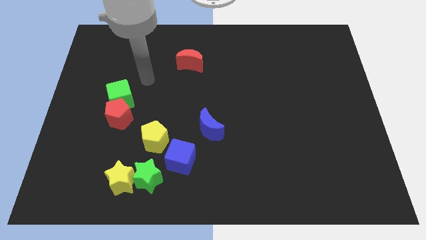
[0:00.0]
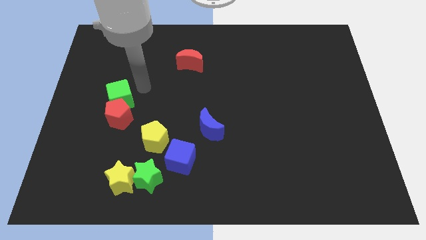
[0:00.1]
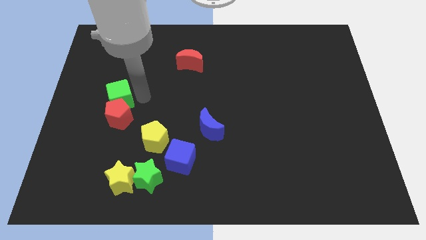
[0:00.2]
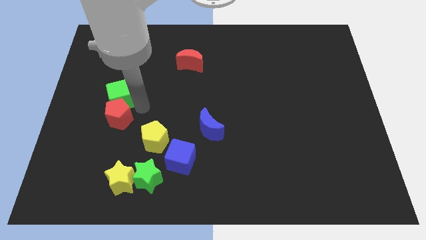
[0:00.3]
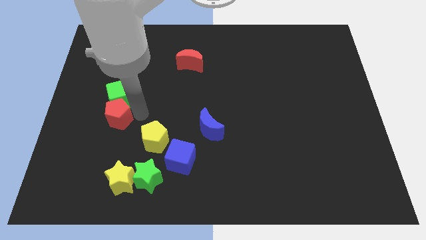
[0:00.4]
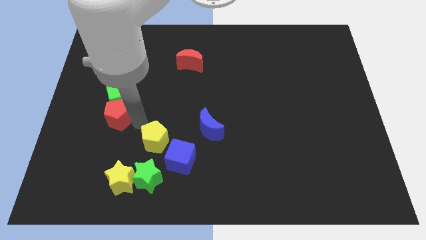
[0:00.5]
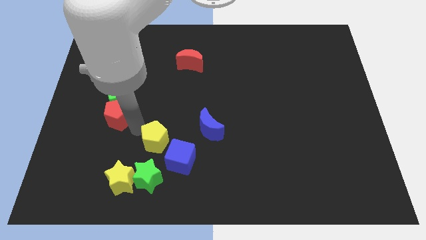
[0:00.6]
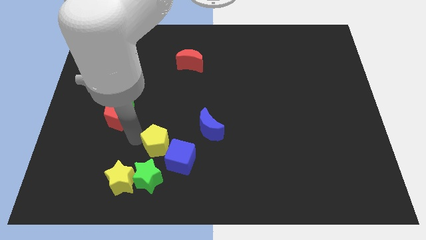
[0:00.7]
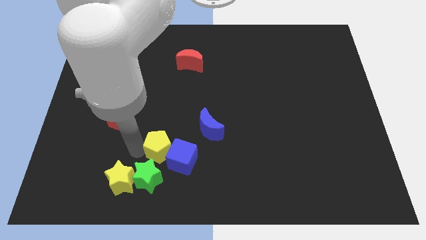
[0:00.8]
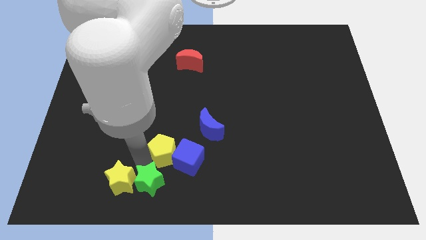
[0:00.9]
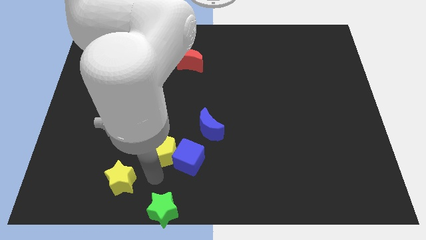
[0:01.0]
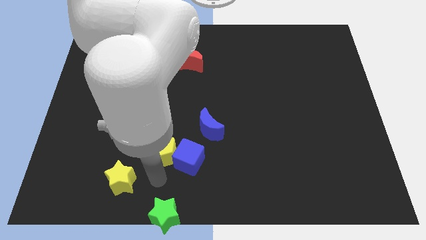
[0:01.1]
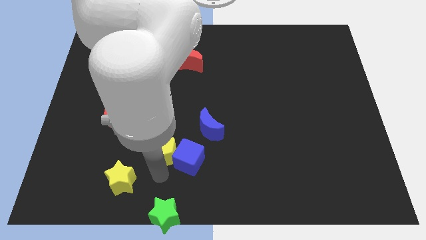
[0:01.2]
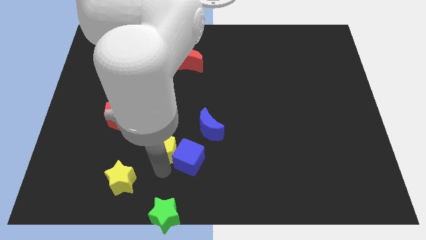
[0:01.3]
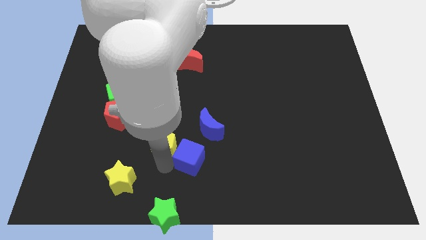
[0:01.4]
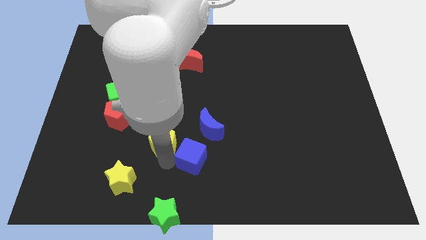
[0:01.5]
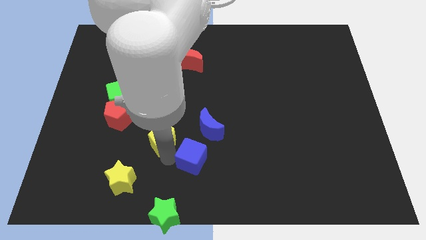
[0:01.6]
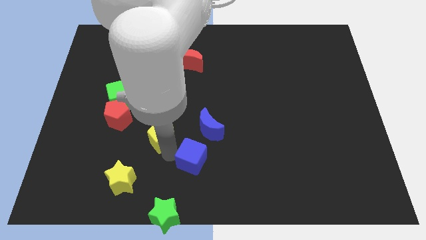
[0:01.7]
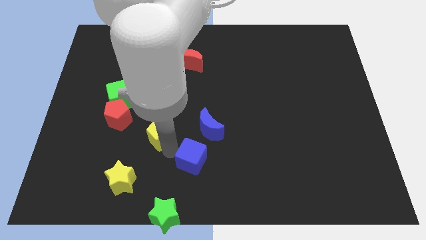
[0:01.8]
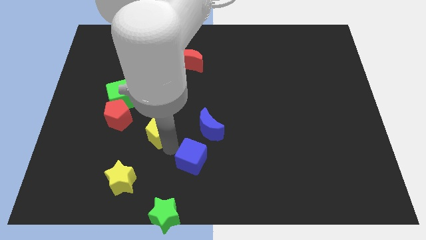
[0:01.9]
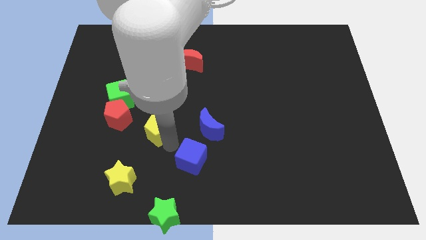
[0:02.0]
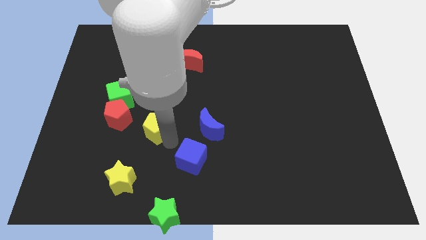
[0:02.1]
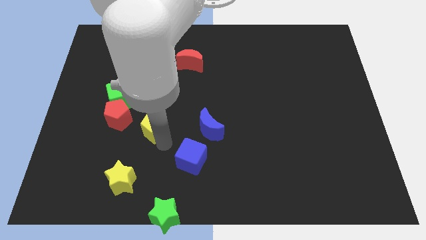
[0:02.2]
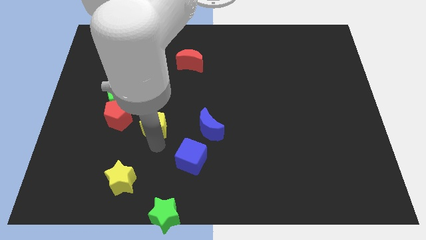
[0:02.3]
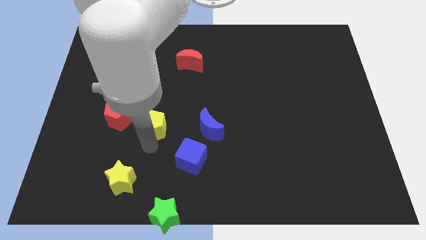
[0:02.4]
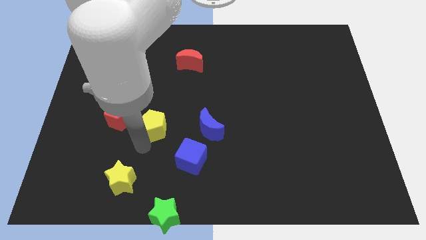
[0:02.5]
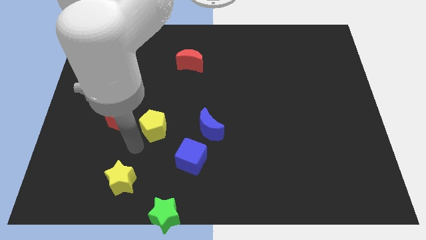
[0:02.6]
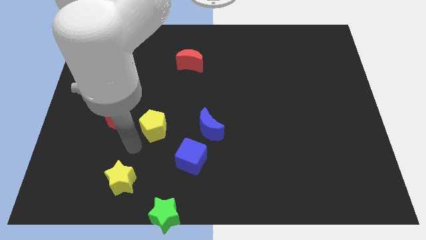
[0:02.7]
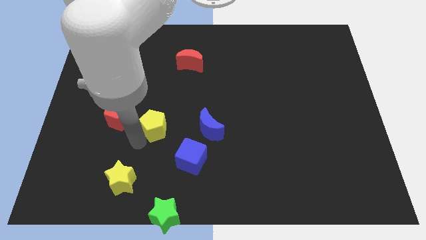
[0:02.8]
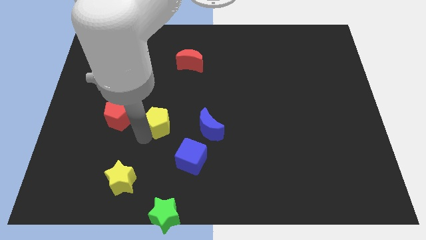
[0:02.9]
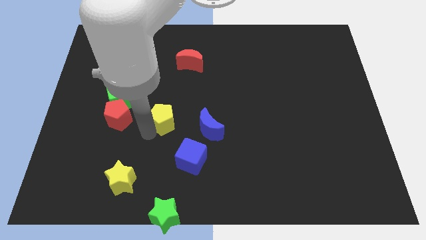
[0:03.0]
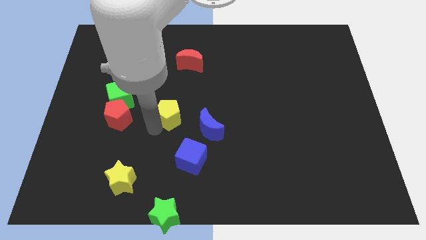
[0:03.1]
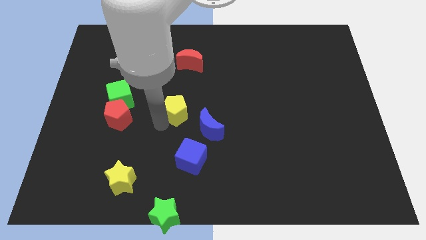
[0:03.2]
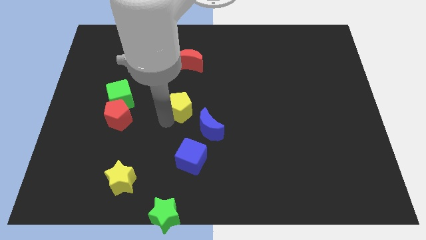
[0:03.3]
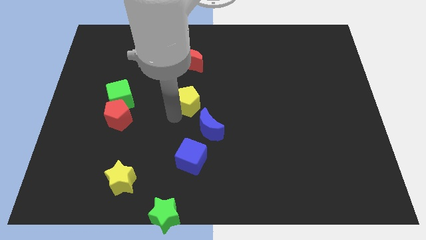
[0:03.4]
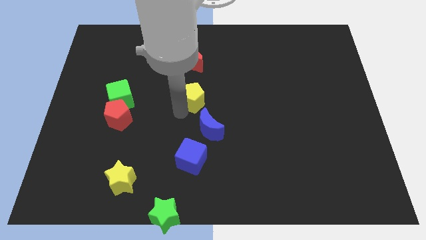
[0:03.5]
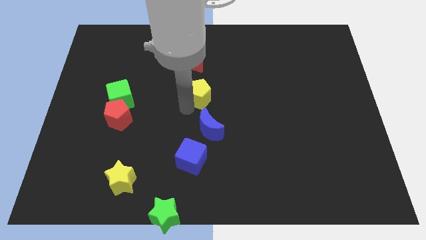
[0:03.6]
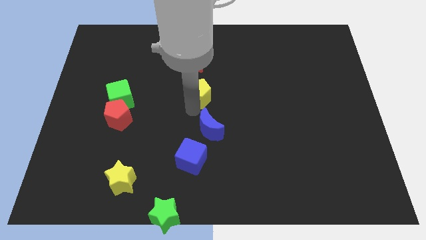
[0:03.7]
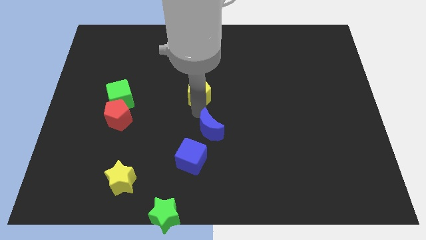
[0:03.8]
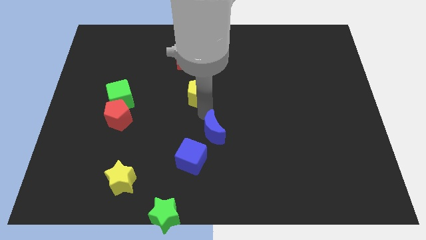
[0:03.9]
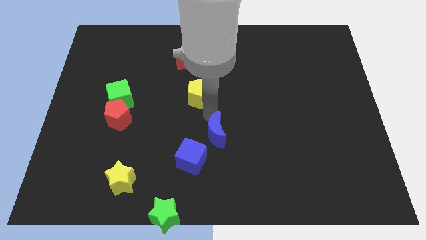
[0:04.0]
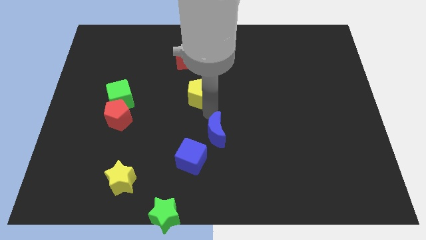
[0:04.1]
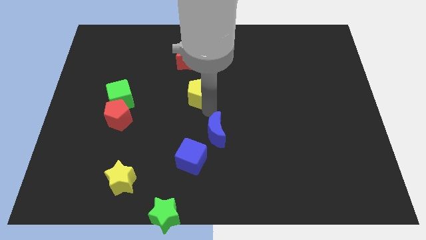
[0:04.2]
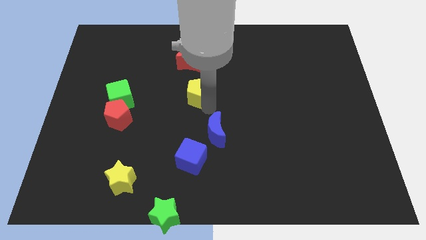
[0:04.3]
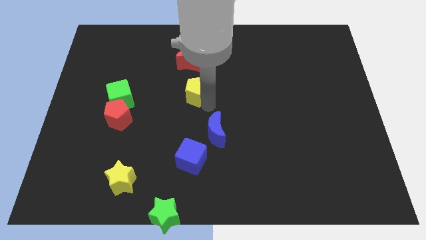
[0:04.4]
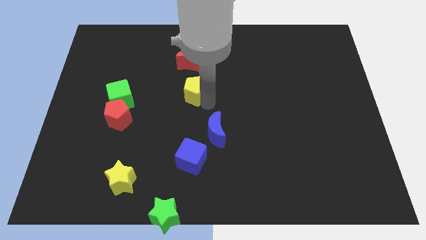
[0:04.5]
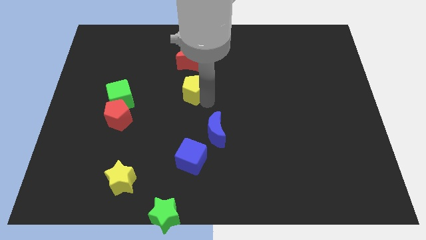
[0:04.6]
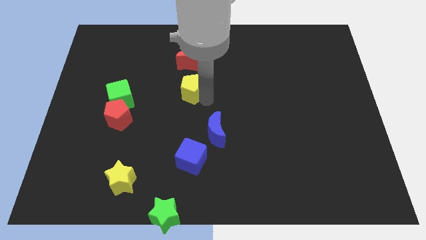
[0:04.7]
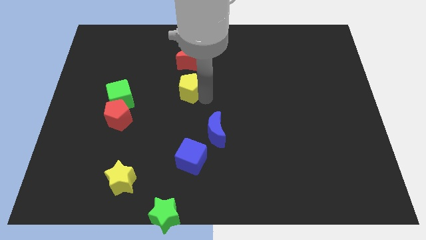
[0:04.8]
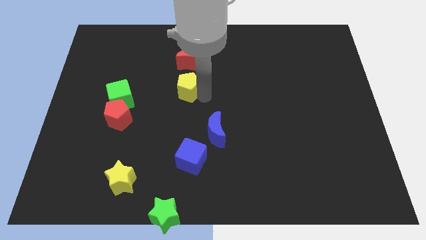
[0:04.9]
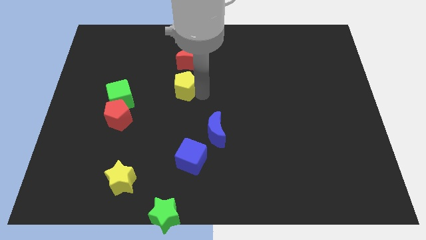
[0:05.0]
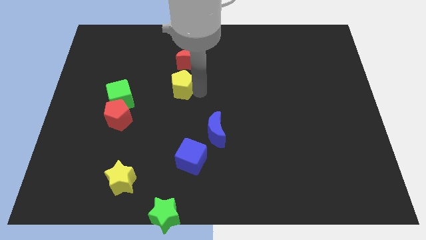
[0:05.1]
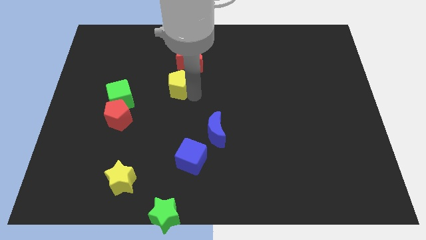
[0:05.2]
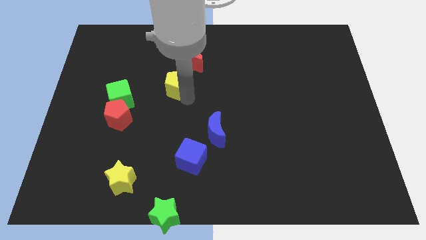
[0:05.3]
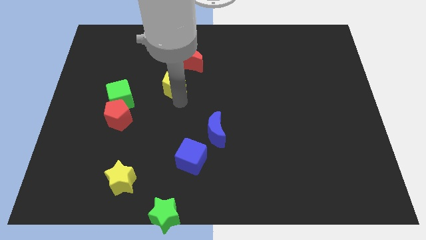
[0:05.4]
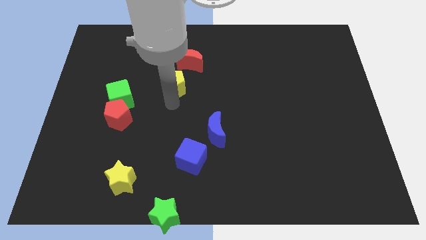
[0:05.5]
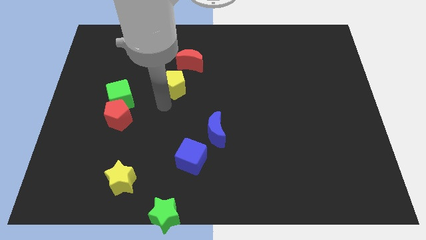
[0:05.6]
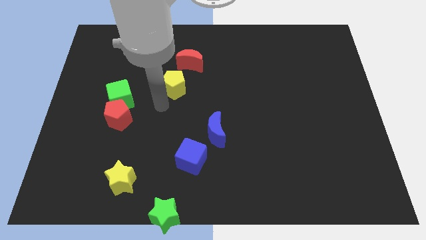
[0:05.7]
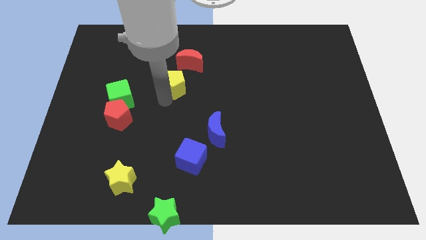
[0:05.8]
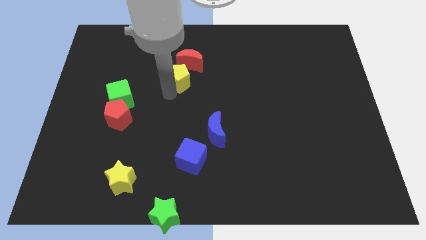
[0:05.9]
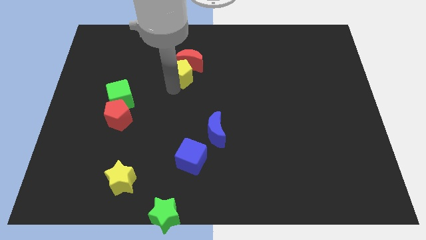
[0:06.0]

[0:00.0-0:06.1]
push the yellow pentagon next to the red moon

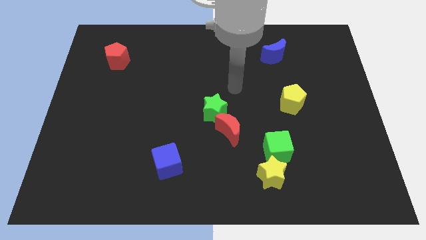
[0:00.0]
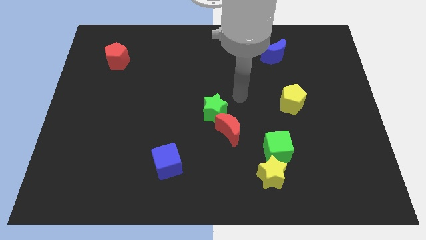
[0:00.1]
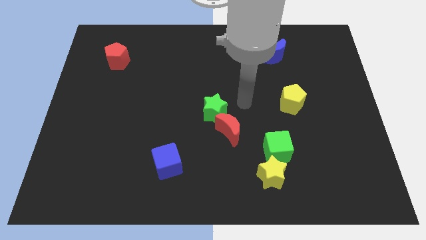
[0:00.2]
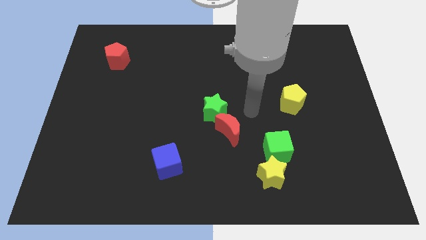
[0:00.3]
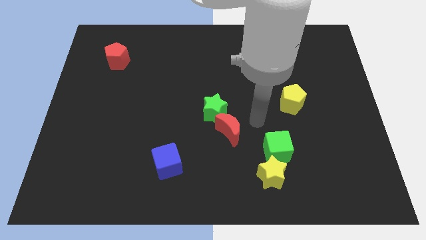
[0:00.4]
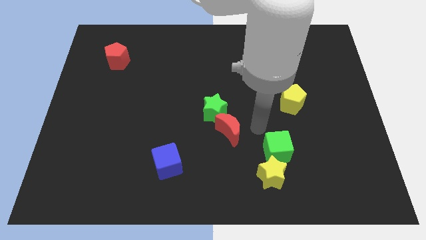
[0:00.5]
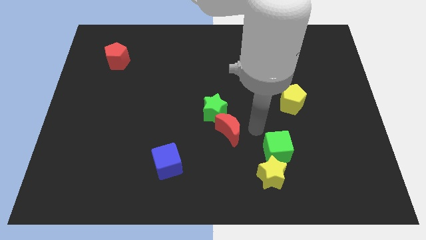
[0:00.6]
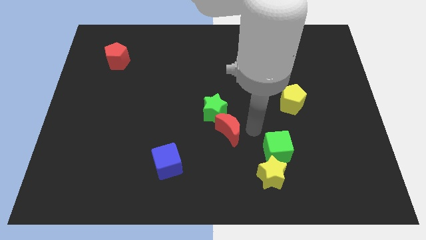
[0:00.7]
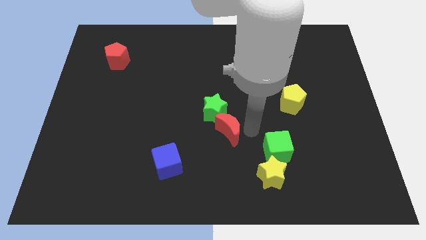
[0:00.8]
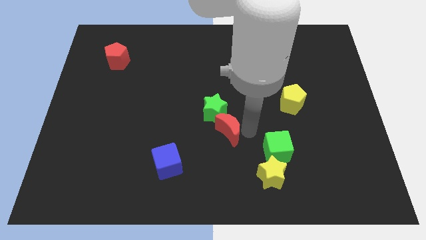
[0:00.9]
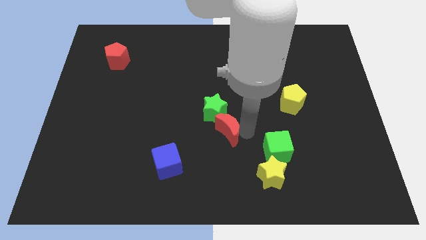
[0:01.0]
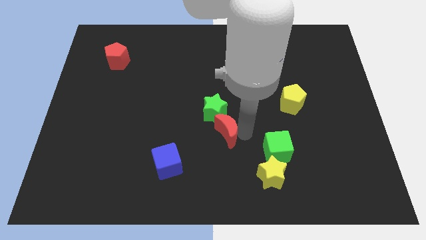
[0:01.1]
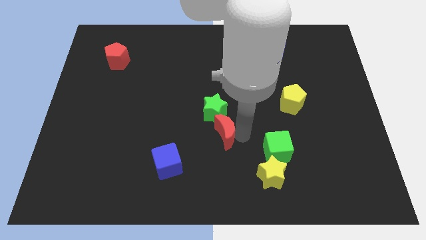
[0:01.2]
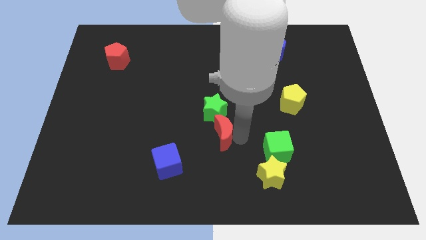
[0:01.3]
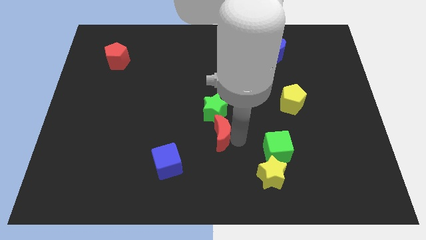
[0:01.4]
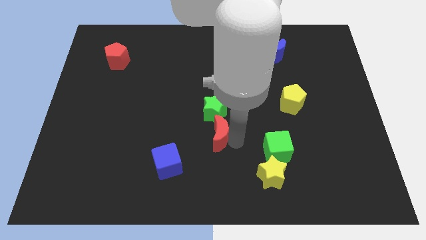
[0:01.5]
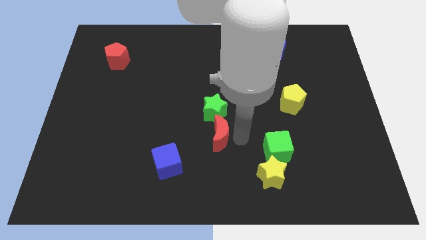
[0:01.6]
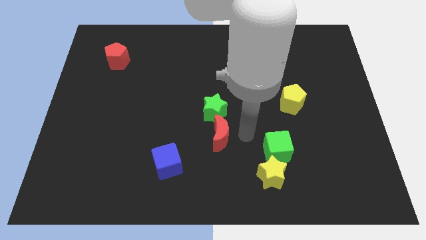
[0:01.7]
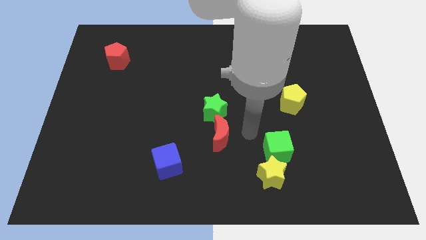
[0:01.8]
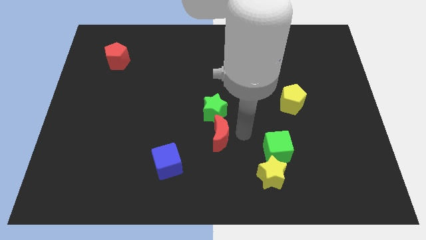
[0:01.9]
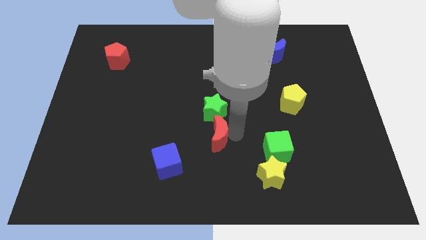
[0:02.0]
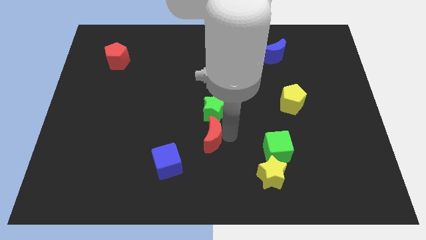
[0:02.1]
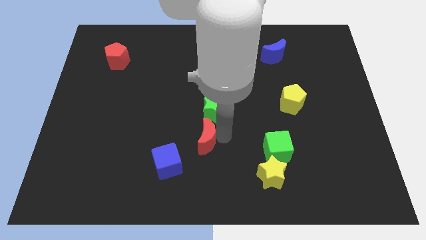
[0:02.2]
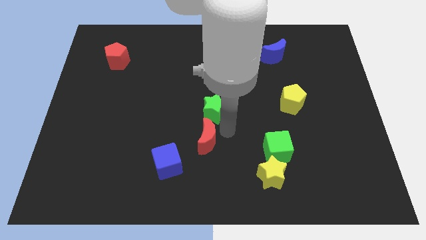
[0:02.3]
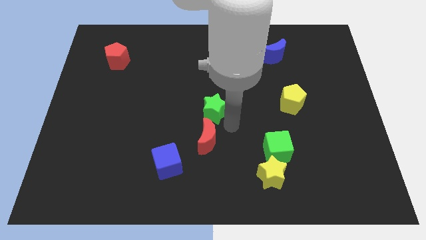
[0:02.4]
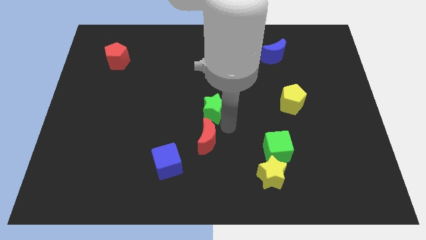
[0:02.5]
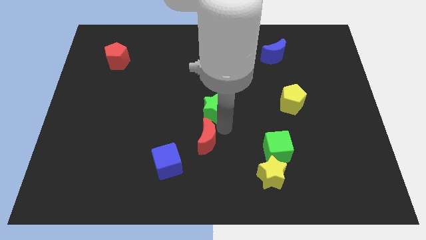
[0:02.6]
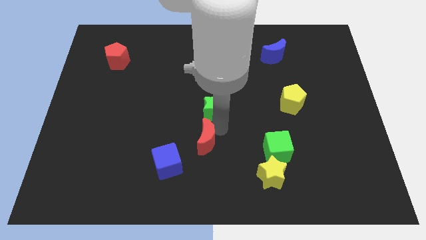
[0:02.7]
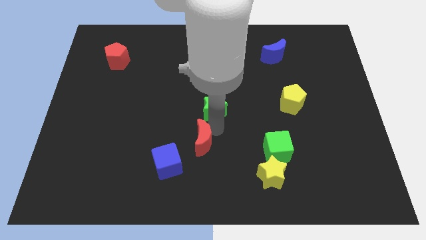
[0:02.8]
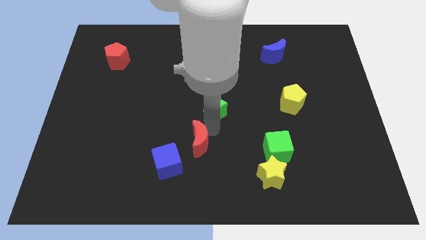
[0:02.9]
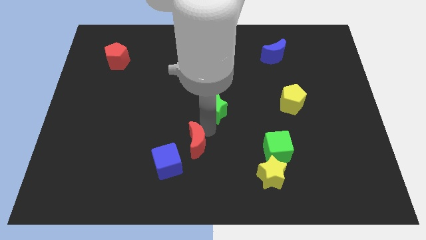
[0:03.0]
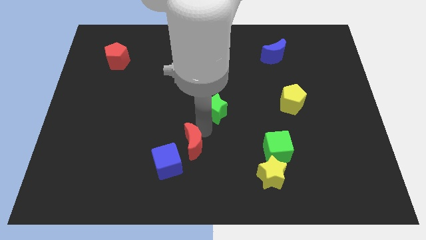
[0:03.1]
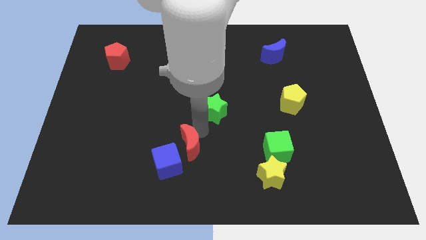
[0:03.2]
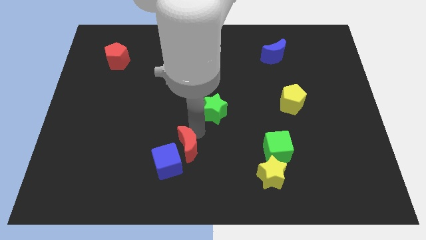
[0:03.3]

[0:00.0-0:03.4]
move the red moon close to the blue cube
